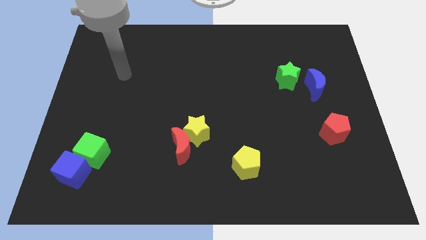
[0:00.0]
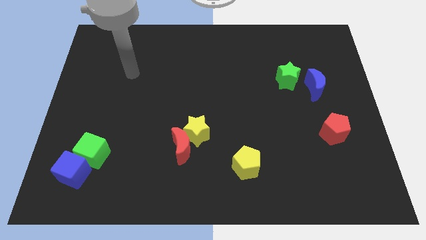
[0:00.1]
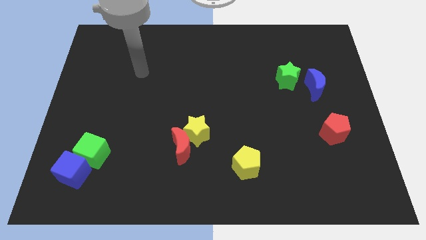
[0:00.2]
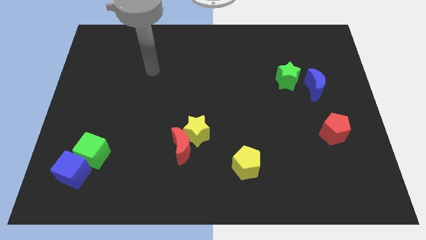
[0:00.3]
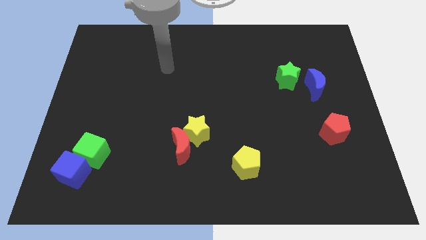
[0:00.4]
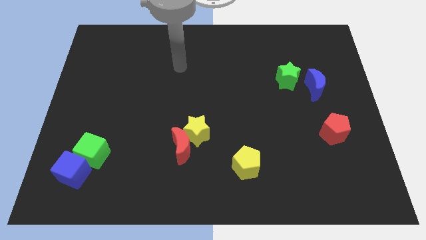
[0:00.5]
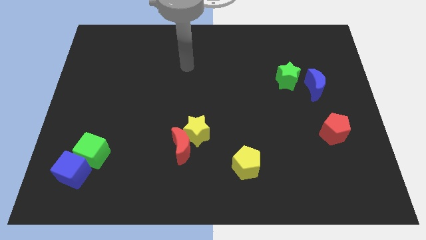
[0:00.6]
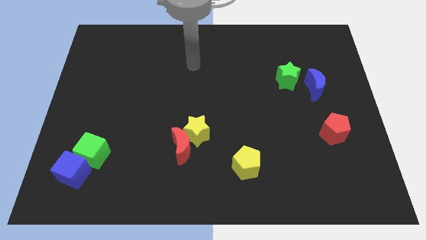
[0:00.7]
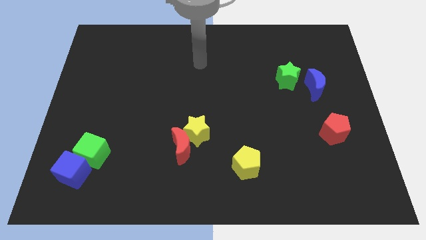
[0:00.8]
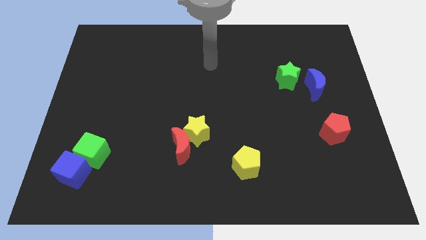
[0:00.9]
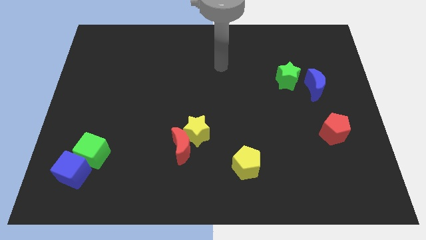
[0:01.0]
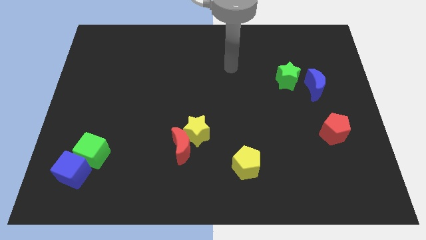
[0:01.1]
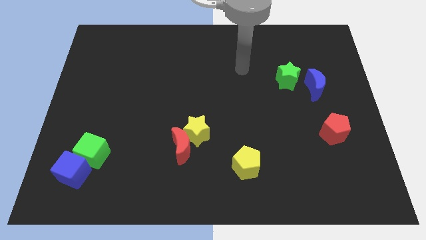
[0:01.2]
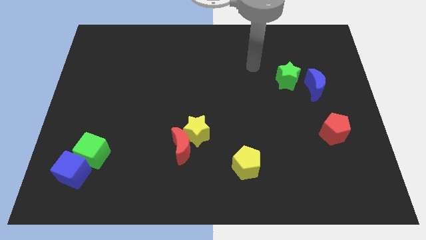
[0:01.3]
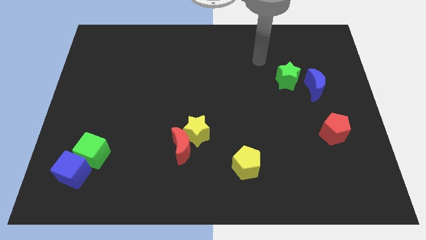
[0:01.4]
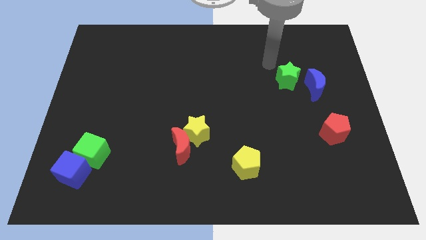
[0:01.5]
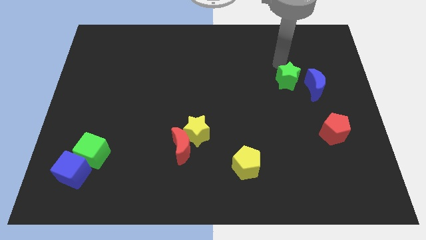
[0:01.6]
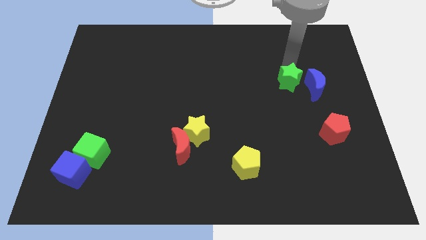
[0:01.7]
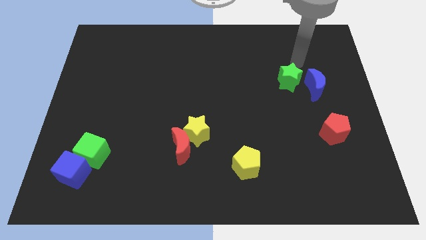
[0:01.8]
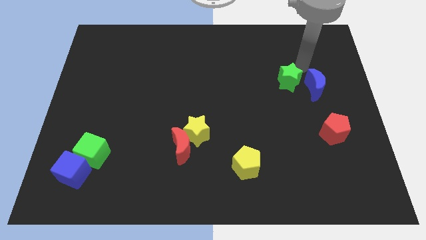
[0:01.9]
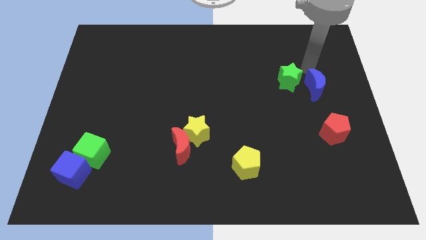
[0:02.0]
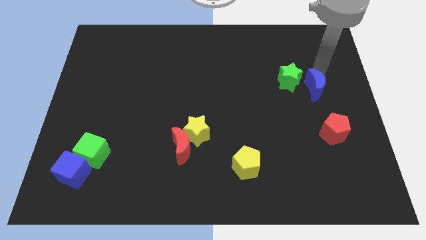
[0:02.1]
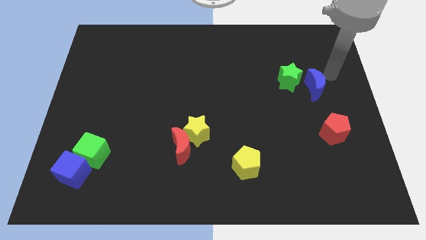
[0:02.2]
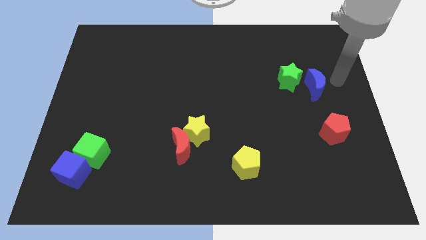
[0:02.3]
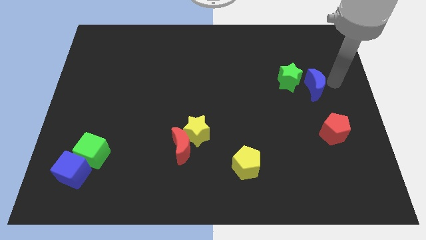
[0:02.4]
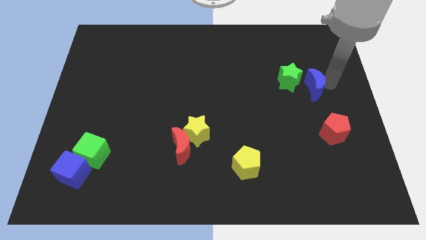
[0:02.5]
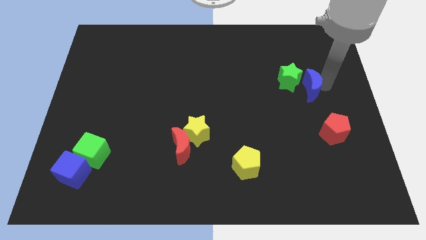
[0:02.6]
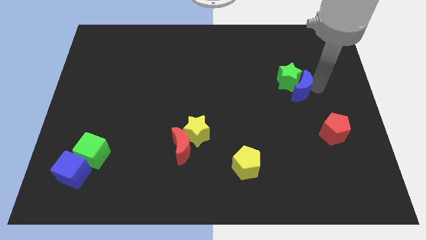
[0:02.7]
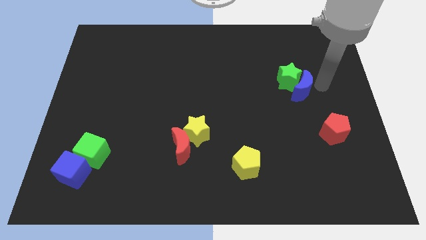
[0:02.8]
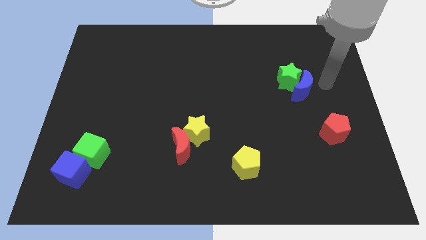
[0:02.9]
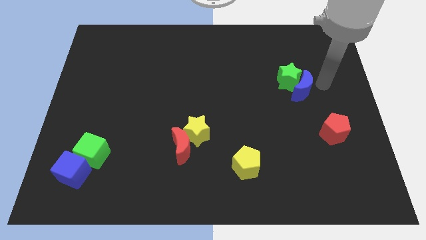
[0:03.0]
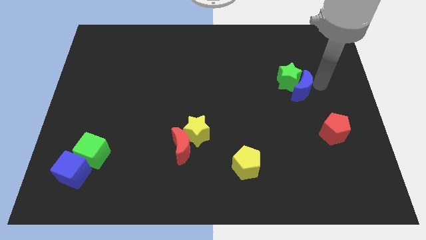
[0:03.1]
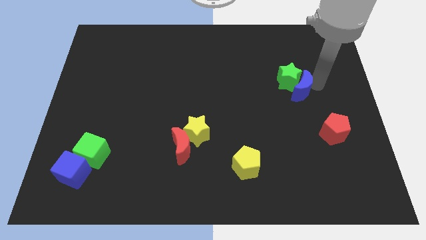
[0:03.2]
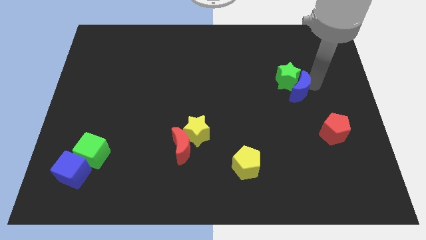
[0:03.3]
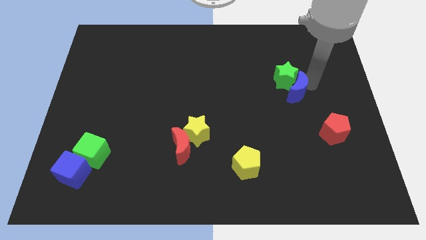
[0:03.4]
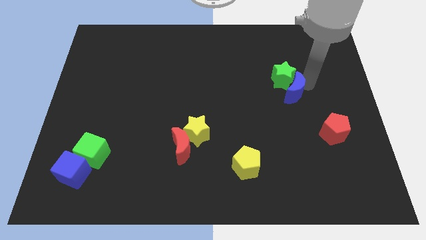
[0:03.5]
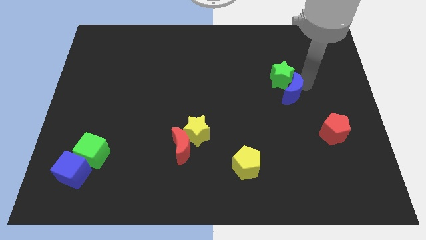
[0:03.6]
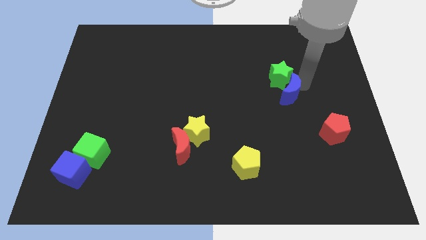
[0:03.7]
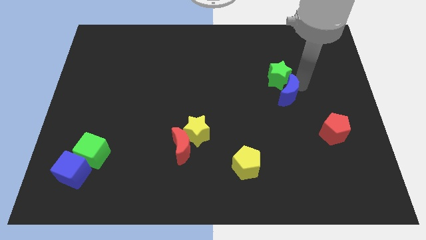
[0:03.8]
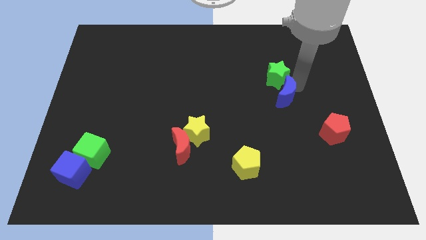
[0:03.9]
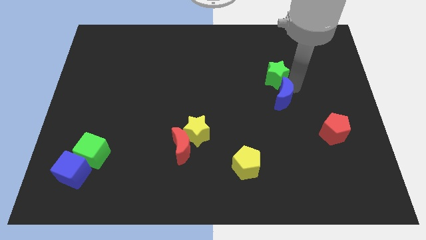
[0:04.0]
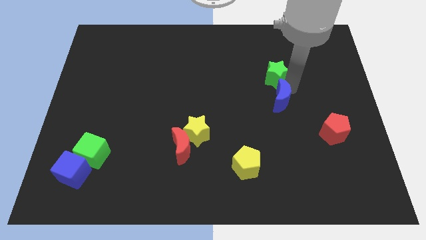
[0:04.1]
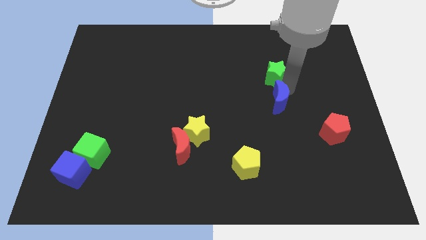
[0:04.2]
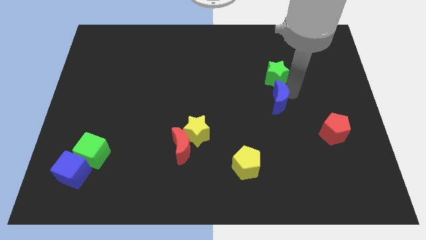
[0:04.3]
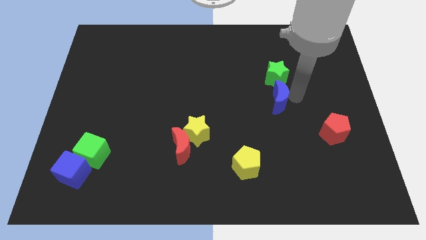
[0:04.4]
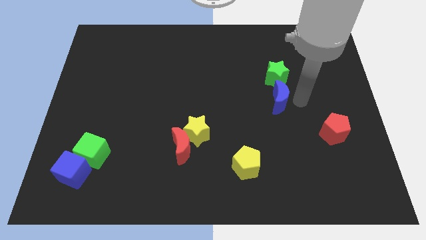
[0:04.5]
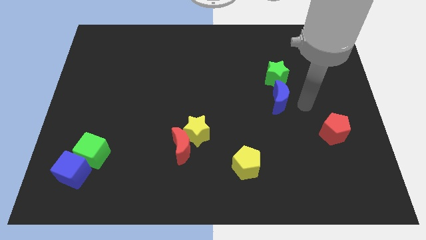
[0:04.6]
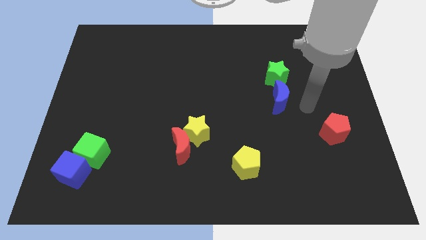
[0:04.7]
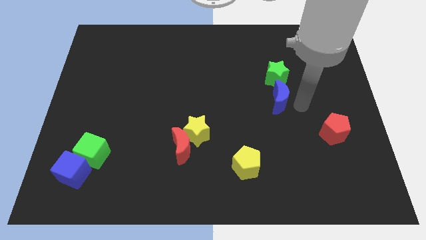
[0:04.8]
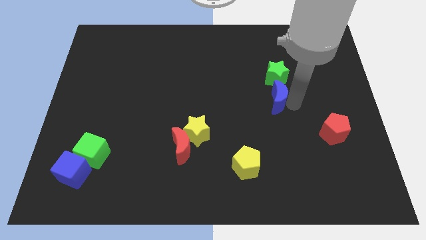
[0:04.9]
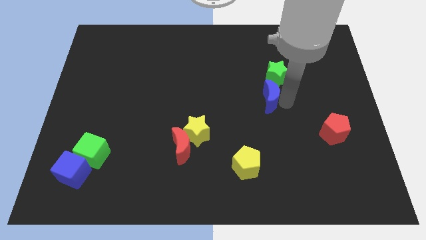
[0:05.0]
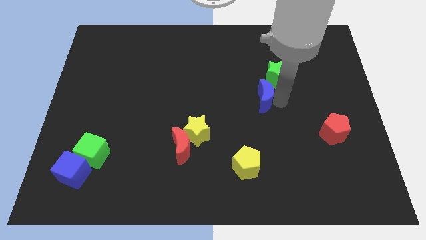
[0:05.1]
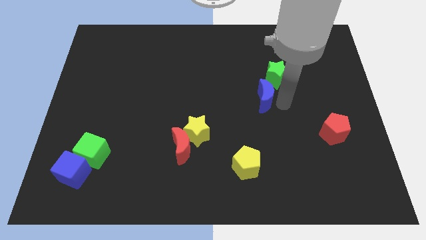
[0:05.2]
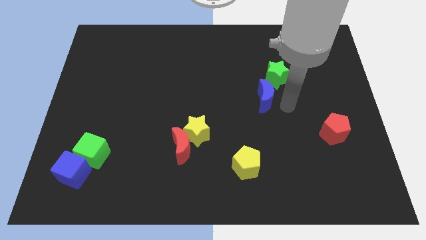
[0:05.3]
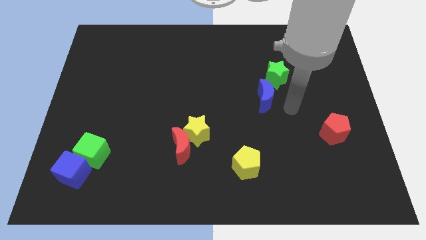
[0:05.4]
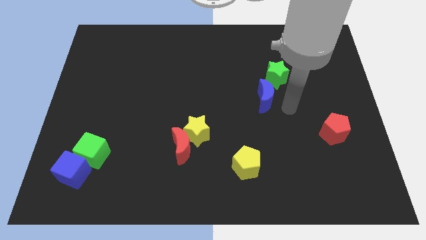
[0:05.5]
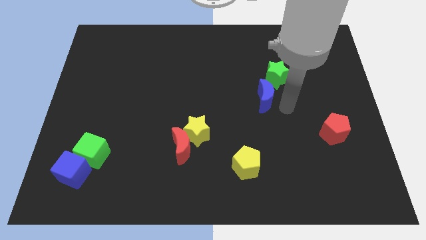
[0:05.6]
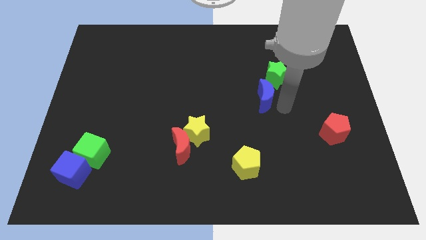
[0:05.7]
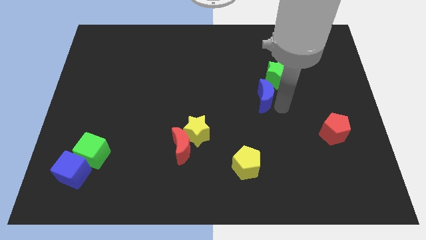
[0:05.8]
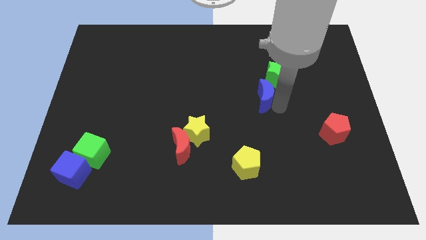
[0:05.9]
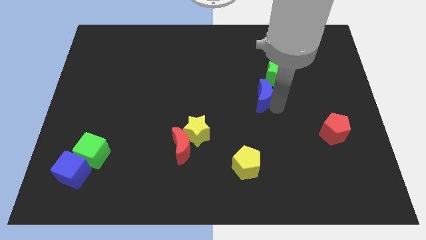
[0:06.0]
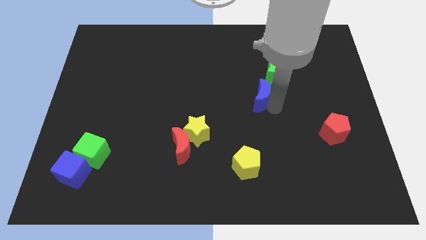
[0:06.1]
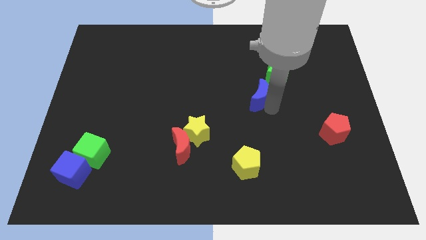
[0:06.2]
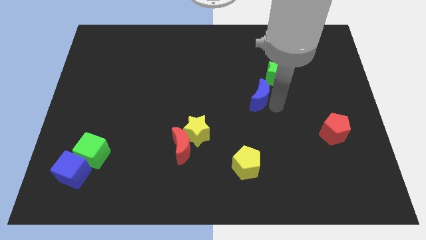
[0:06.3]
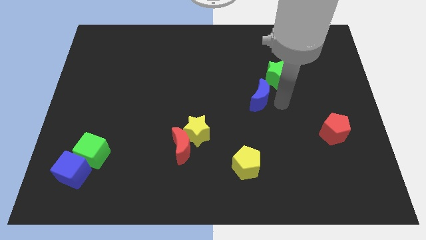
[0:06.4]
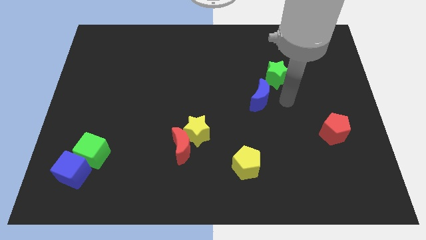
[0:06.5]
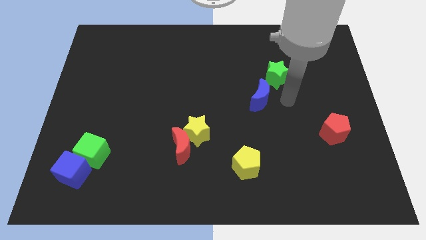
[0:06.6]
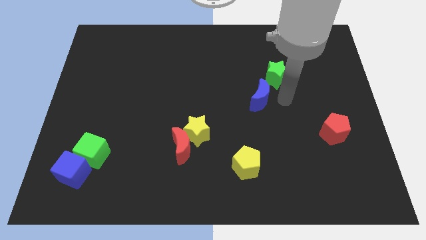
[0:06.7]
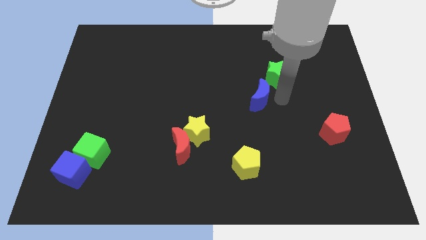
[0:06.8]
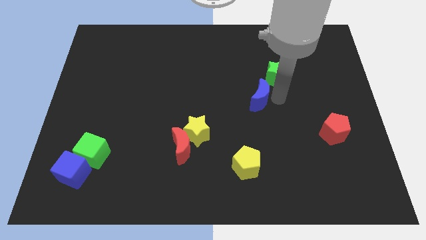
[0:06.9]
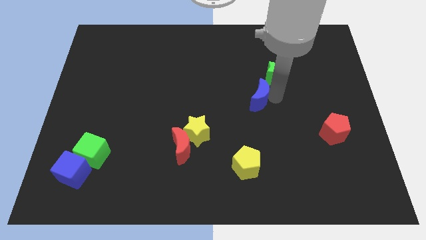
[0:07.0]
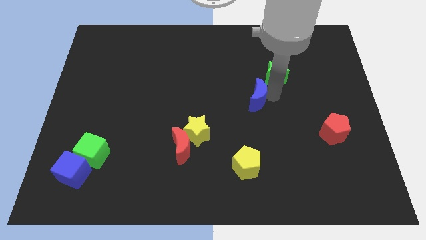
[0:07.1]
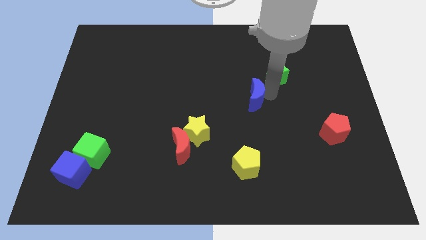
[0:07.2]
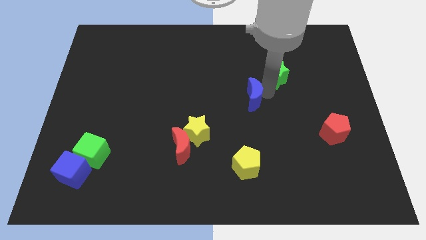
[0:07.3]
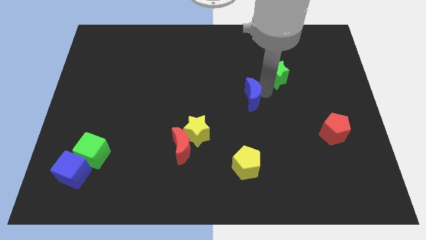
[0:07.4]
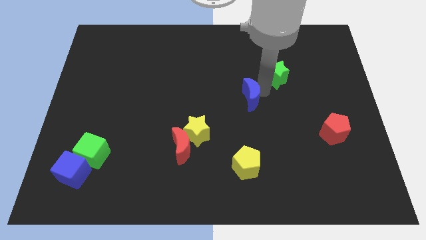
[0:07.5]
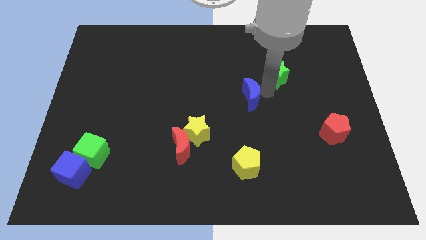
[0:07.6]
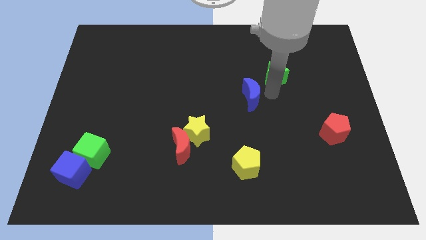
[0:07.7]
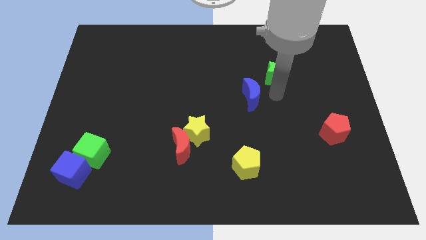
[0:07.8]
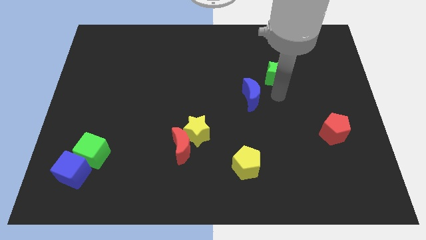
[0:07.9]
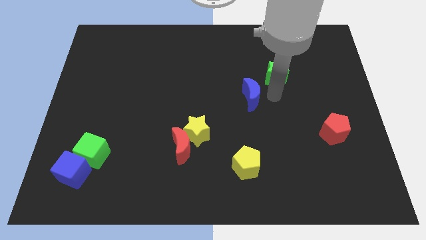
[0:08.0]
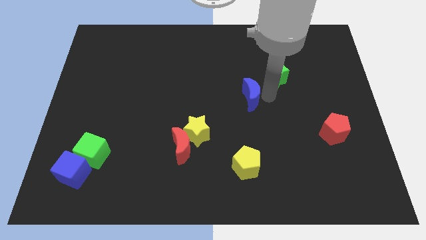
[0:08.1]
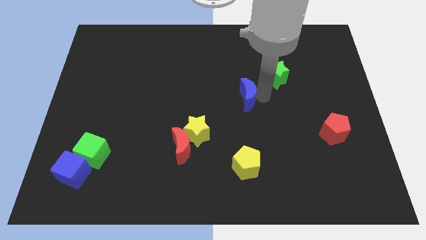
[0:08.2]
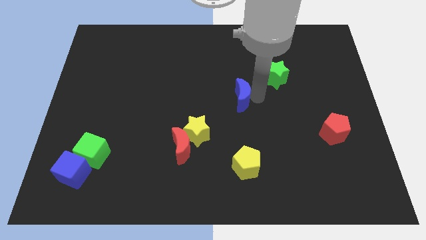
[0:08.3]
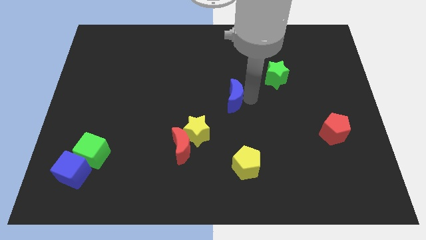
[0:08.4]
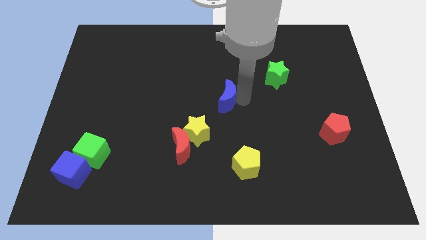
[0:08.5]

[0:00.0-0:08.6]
push the blue moon left
